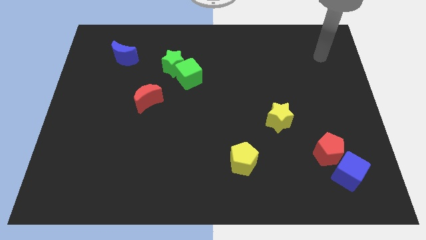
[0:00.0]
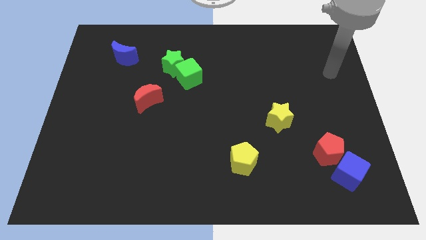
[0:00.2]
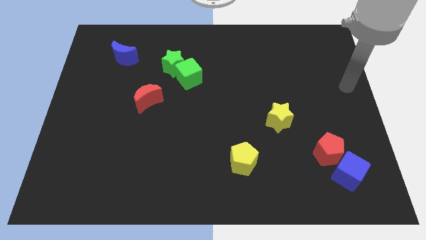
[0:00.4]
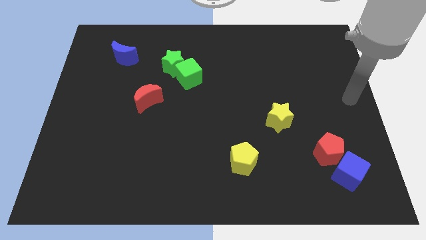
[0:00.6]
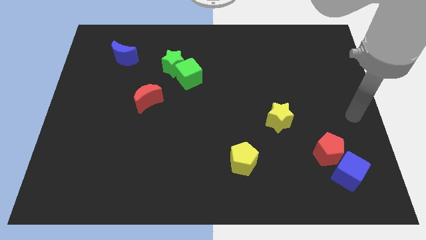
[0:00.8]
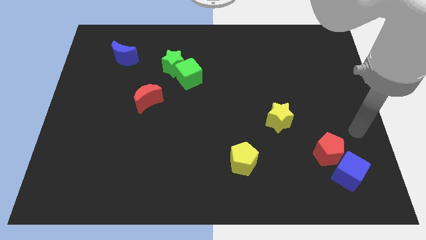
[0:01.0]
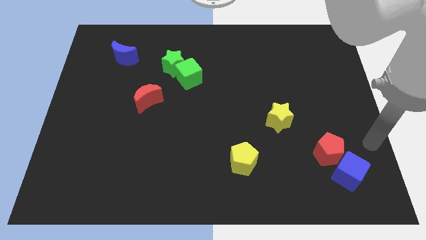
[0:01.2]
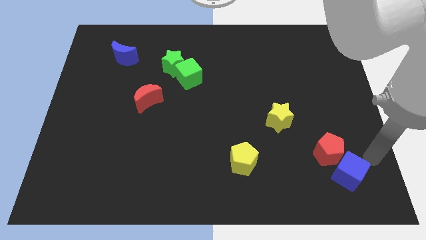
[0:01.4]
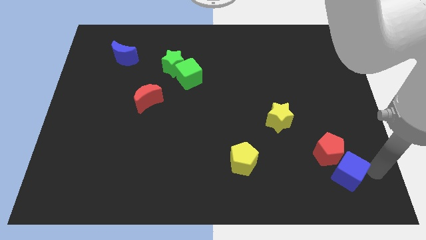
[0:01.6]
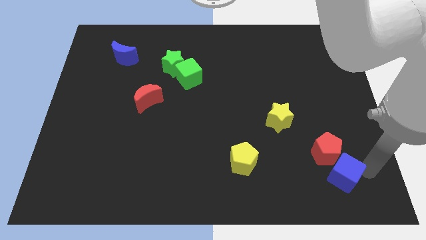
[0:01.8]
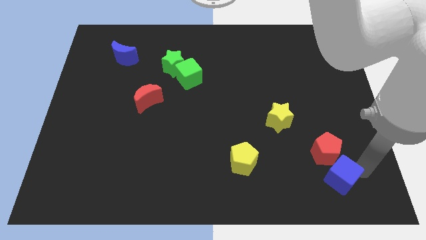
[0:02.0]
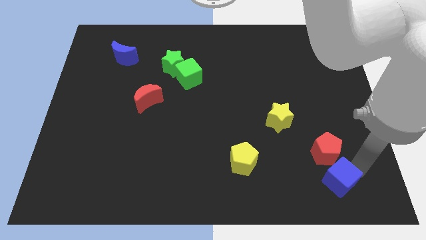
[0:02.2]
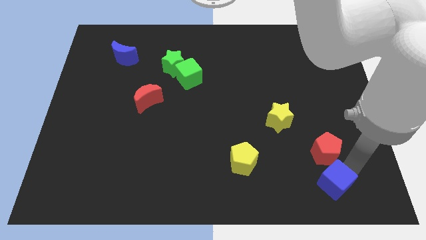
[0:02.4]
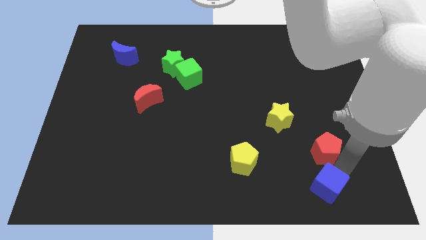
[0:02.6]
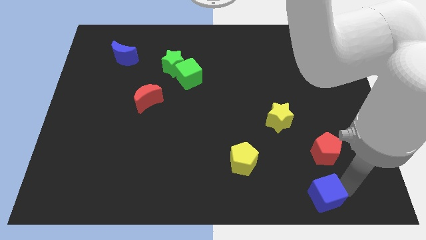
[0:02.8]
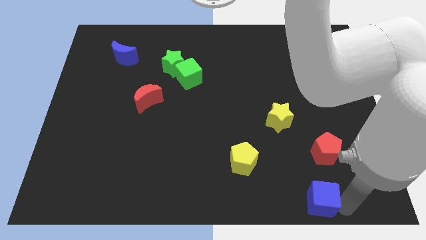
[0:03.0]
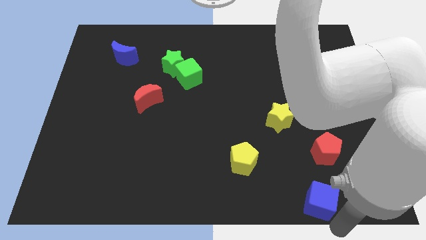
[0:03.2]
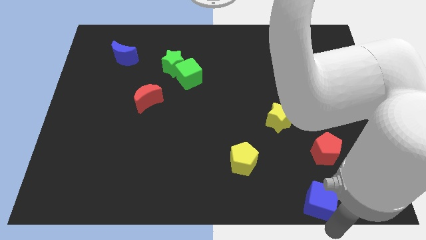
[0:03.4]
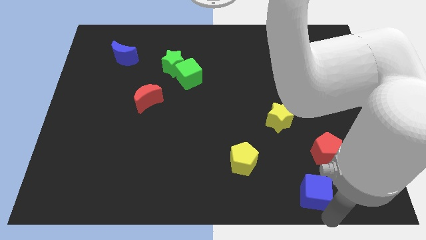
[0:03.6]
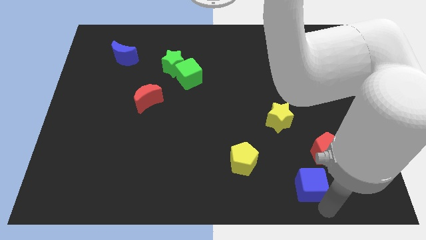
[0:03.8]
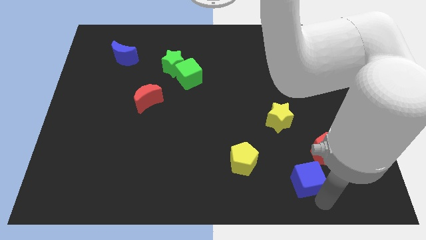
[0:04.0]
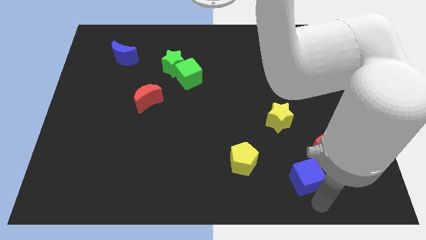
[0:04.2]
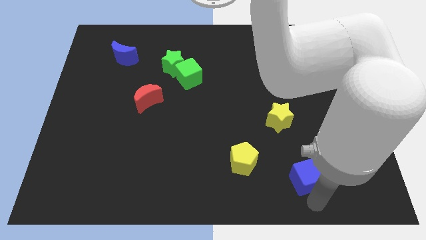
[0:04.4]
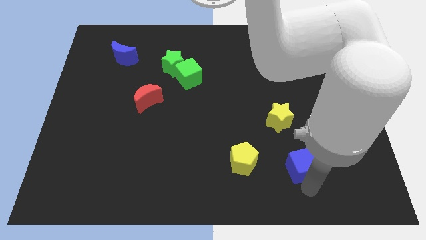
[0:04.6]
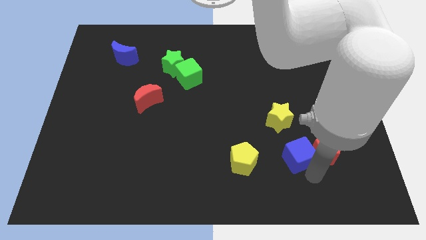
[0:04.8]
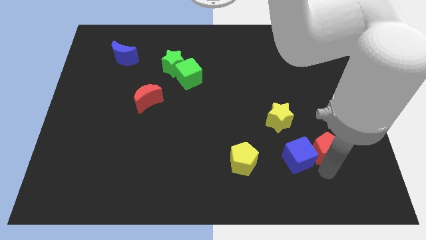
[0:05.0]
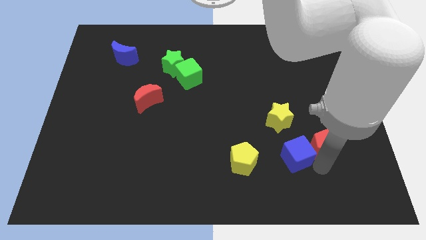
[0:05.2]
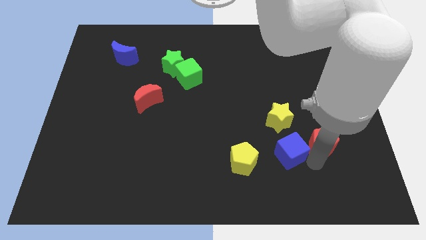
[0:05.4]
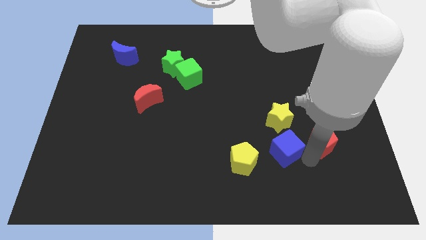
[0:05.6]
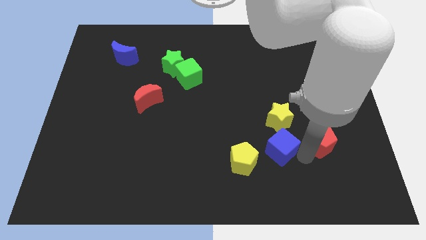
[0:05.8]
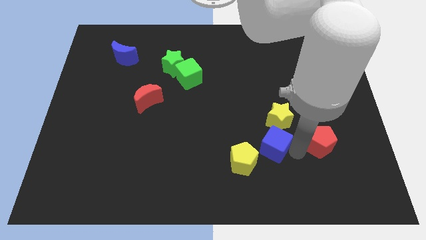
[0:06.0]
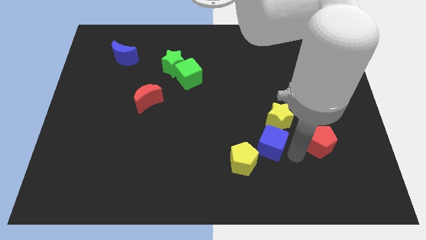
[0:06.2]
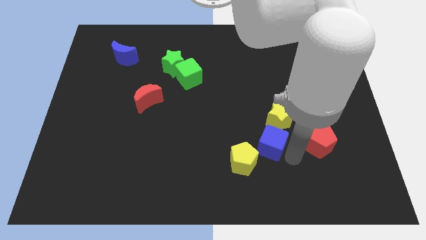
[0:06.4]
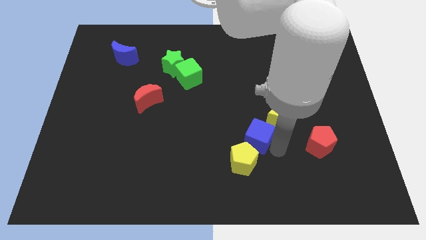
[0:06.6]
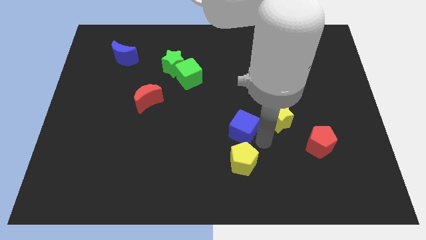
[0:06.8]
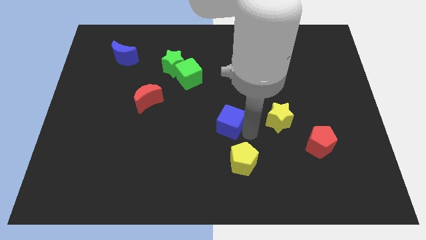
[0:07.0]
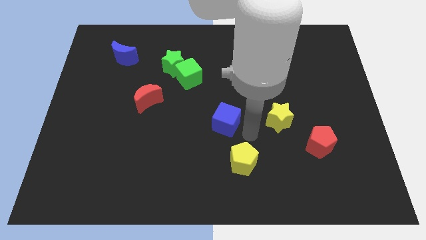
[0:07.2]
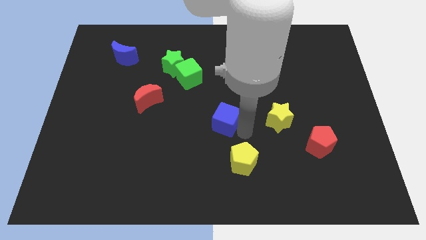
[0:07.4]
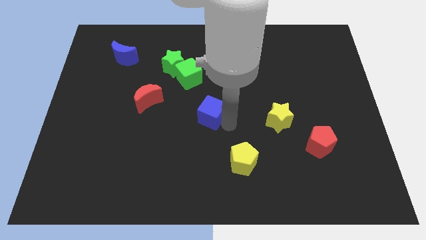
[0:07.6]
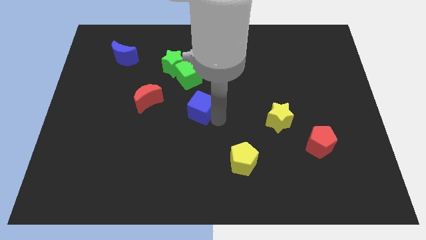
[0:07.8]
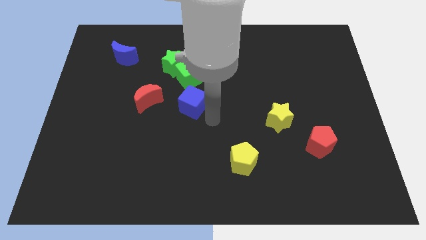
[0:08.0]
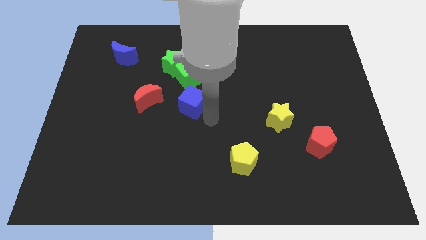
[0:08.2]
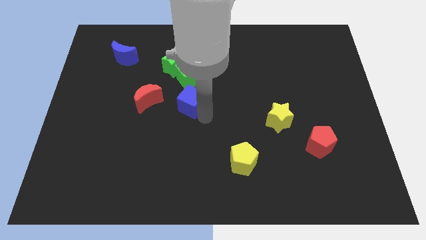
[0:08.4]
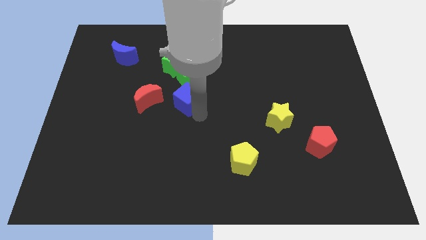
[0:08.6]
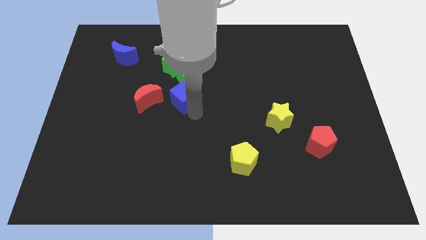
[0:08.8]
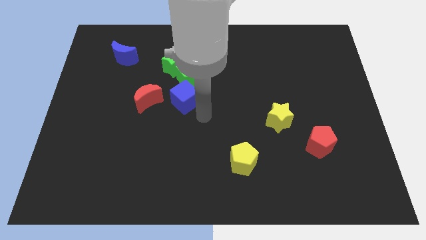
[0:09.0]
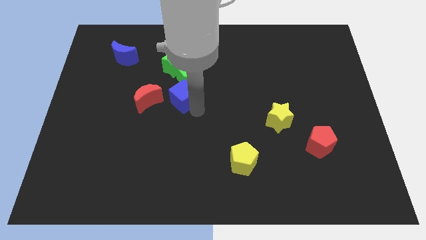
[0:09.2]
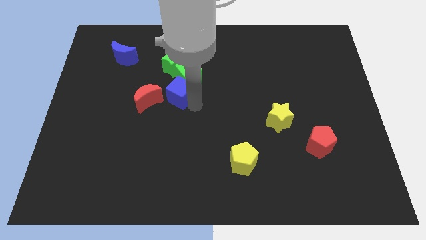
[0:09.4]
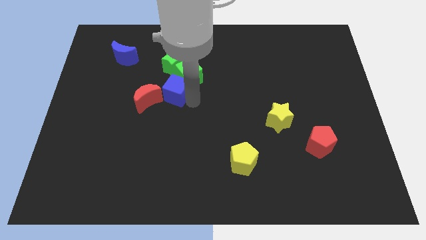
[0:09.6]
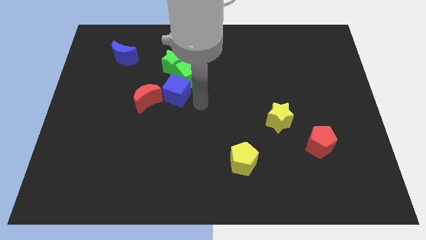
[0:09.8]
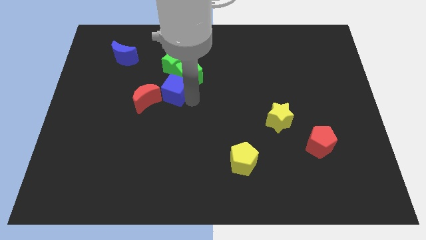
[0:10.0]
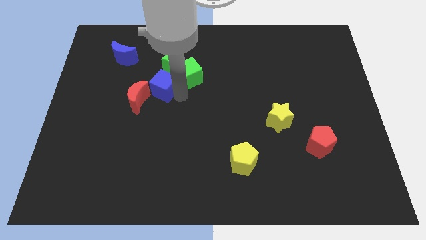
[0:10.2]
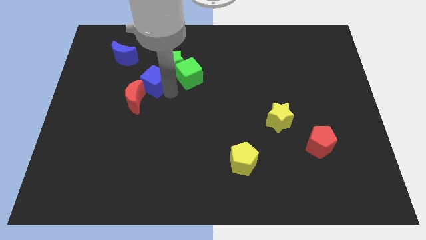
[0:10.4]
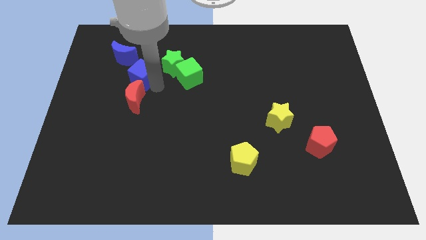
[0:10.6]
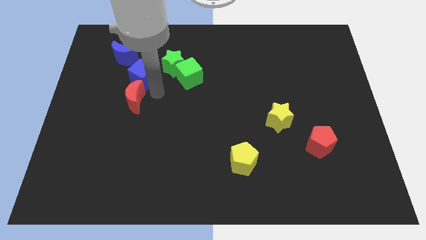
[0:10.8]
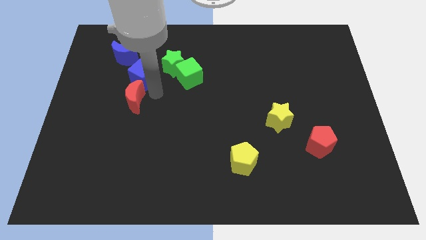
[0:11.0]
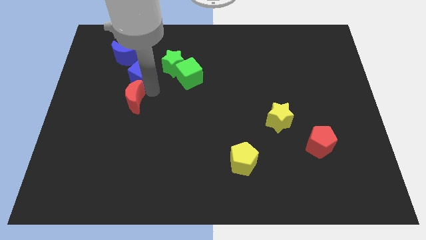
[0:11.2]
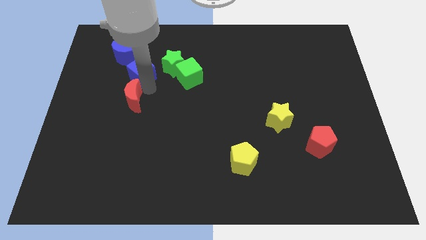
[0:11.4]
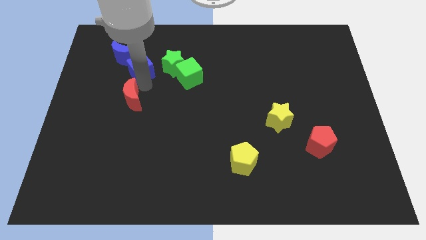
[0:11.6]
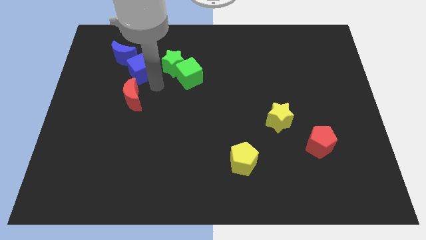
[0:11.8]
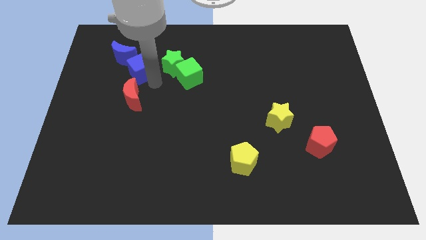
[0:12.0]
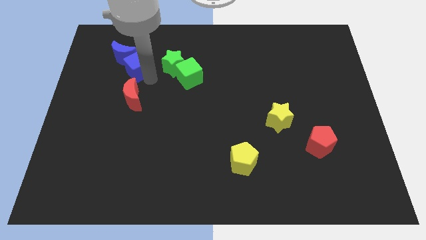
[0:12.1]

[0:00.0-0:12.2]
move the blue cube to the blue moon

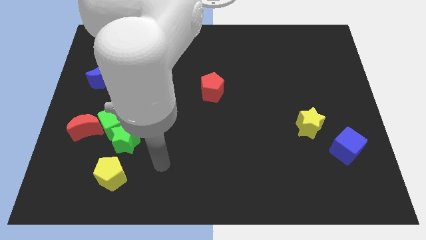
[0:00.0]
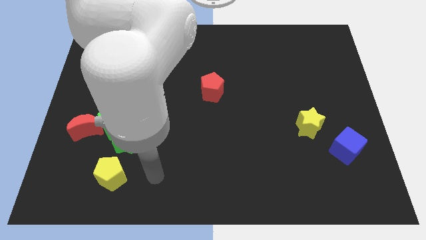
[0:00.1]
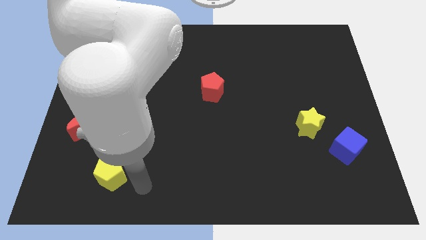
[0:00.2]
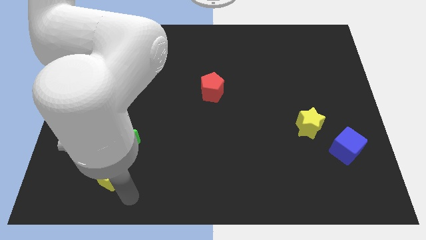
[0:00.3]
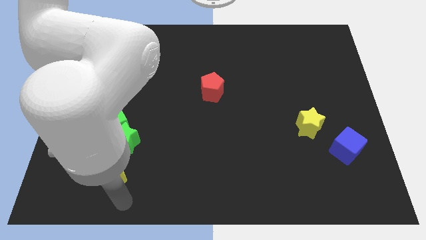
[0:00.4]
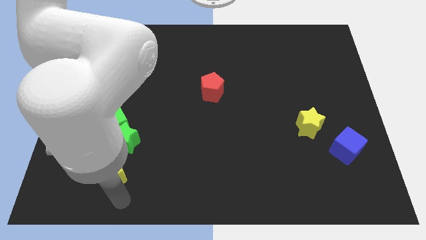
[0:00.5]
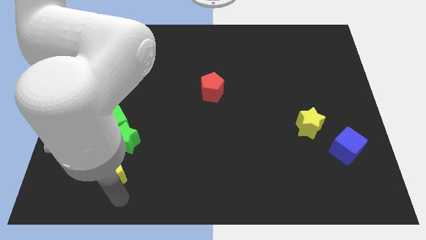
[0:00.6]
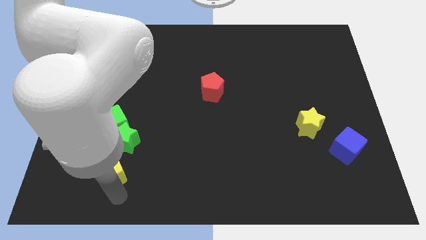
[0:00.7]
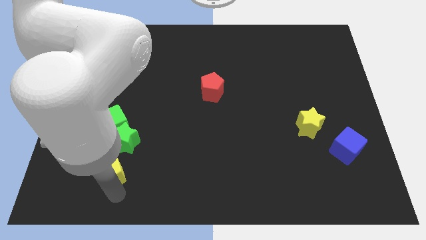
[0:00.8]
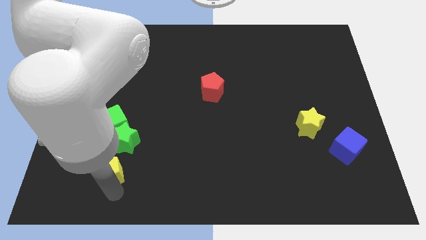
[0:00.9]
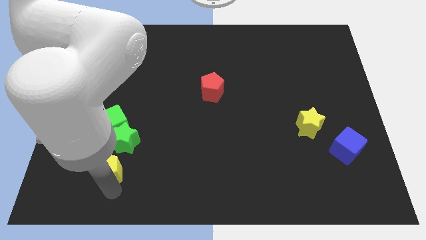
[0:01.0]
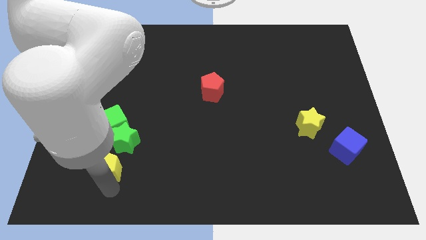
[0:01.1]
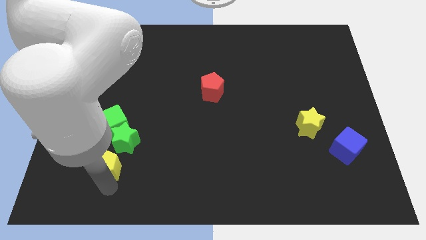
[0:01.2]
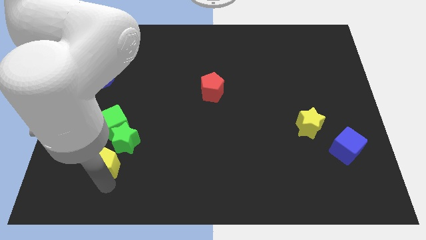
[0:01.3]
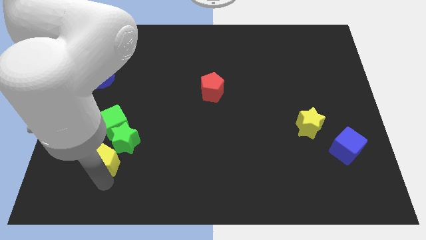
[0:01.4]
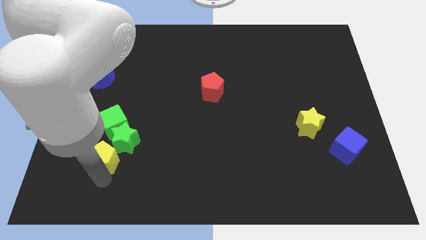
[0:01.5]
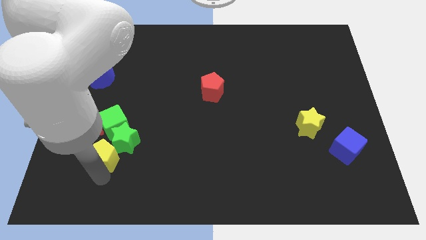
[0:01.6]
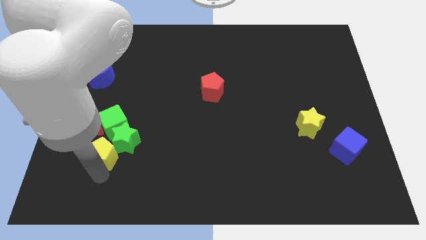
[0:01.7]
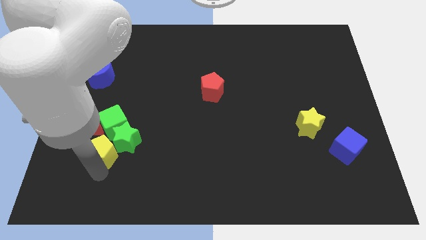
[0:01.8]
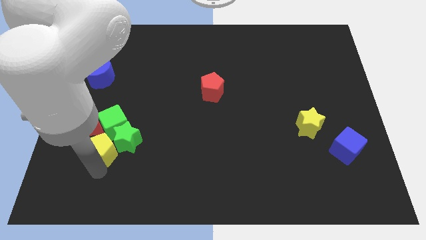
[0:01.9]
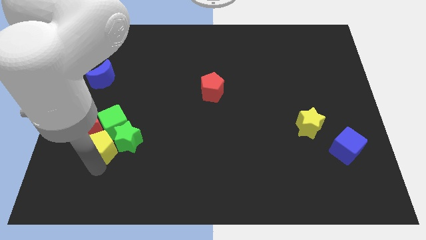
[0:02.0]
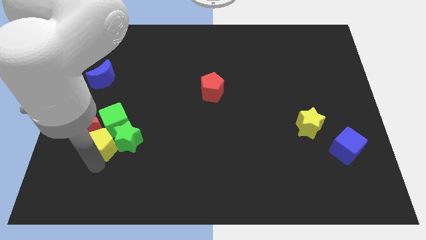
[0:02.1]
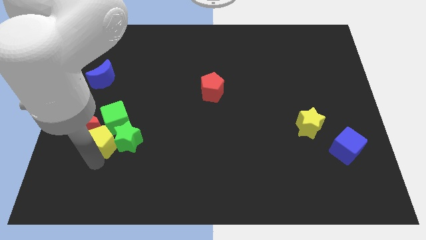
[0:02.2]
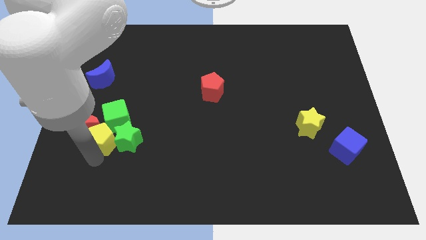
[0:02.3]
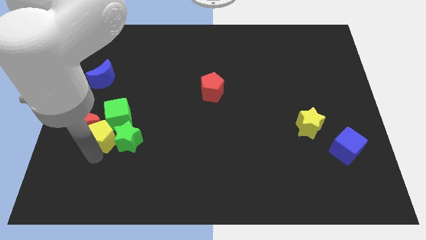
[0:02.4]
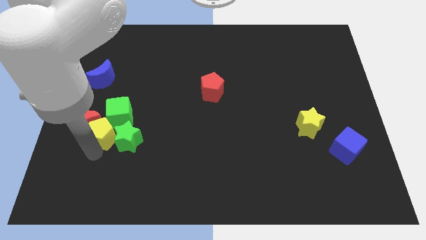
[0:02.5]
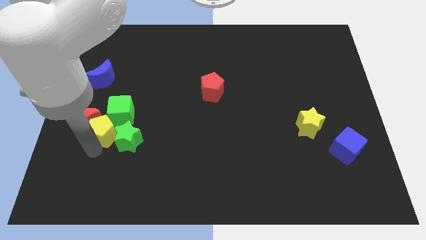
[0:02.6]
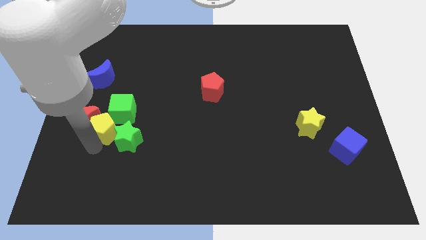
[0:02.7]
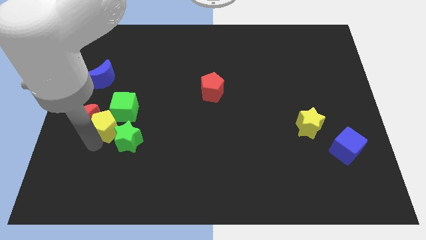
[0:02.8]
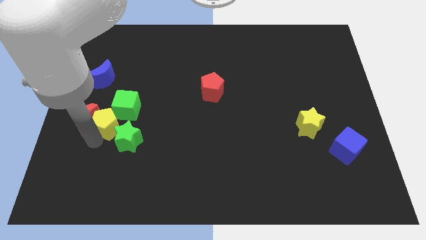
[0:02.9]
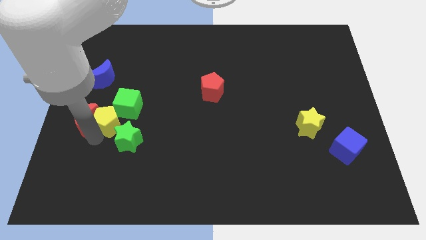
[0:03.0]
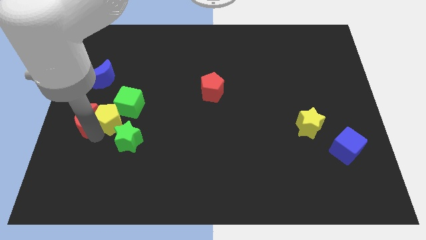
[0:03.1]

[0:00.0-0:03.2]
put the yellow pentagon to the green cube
